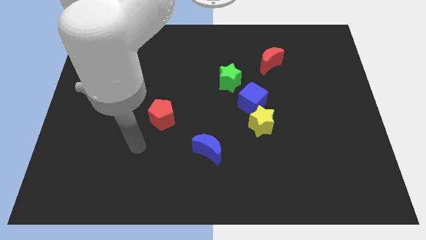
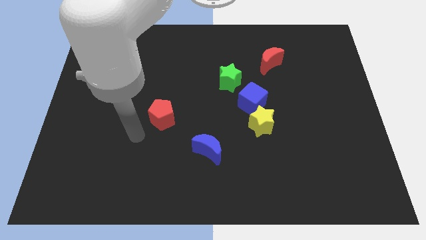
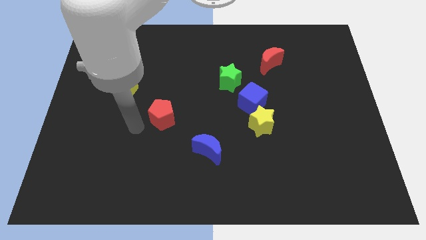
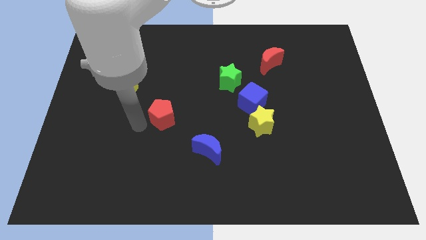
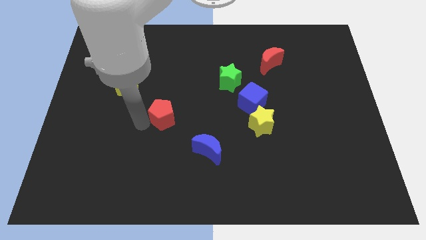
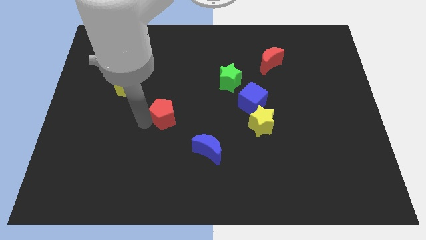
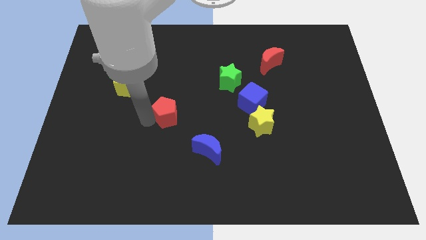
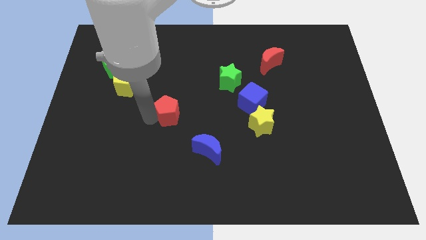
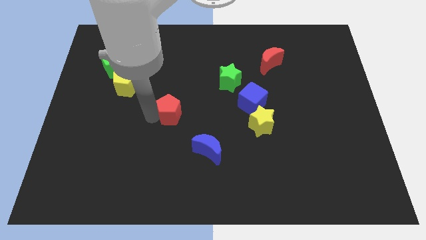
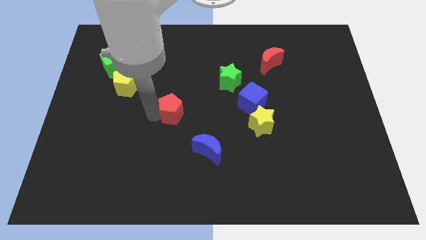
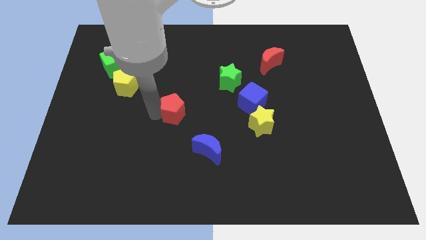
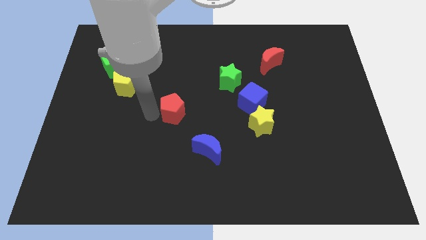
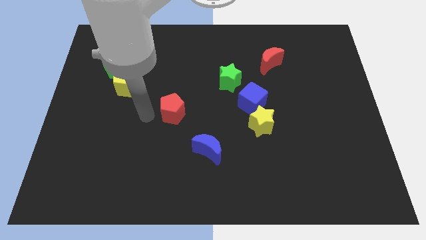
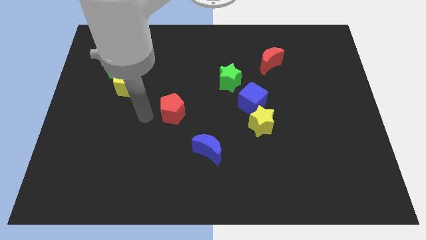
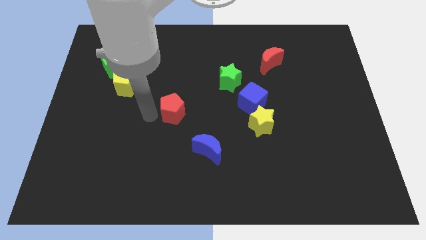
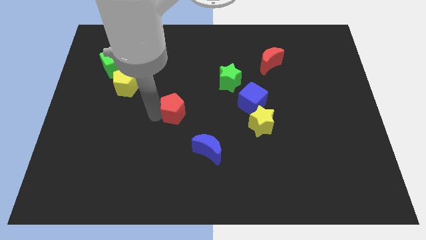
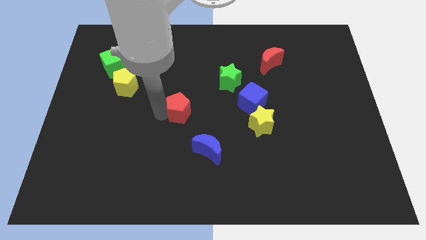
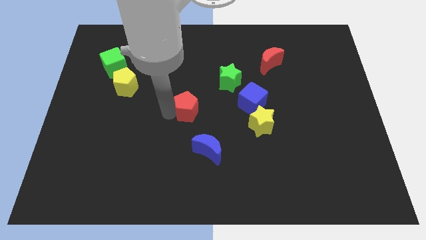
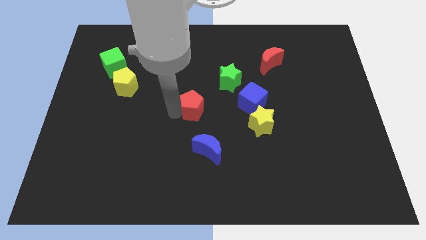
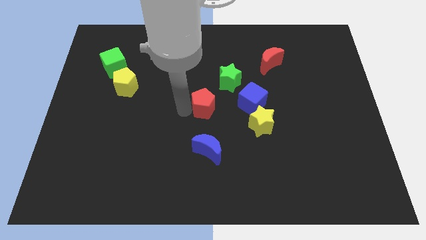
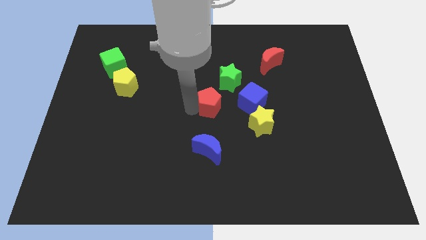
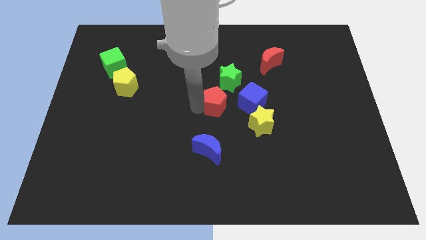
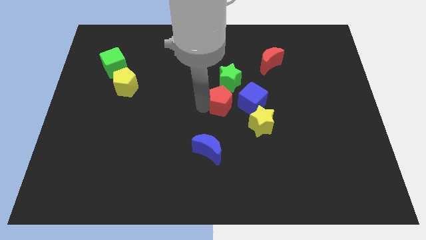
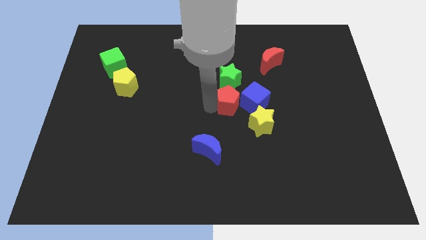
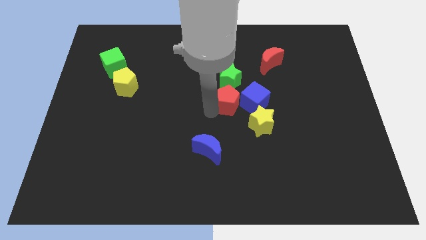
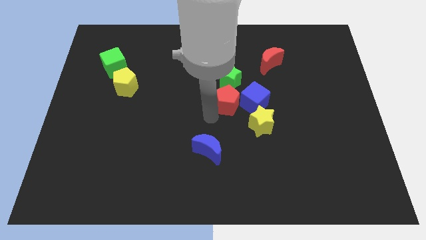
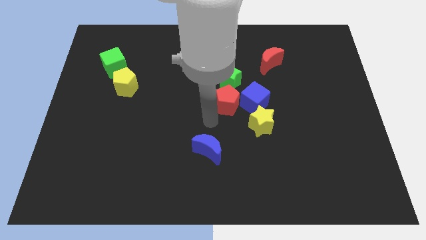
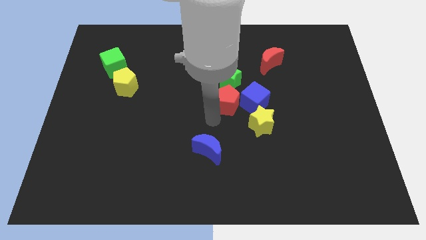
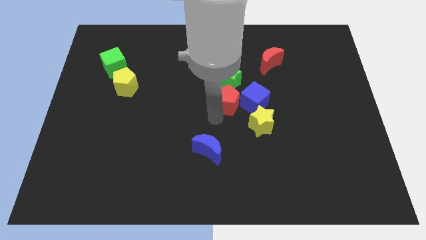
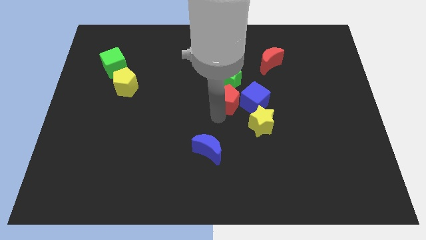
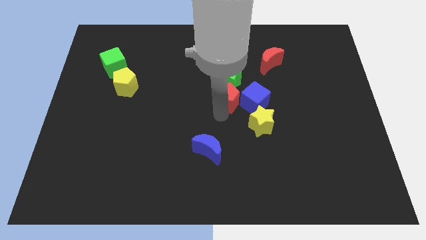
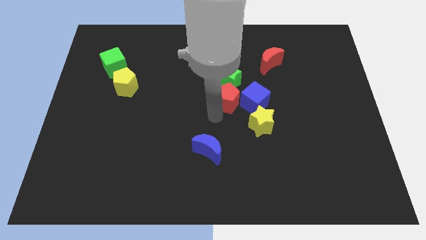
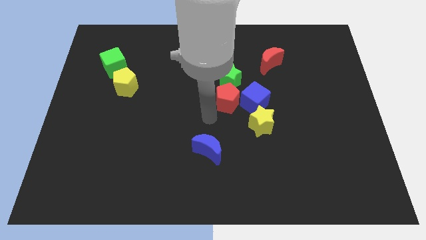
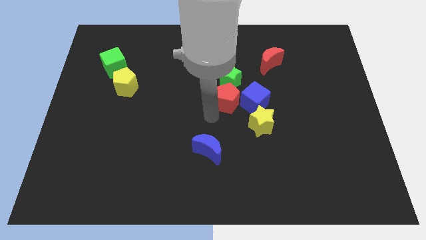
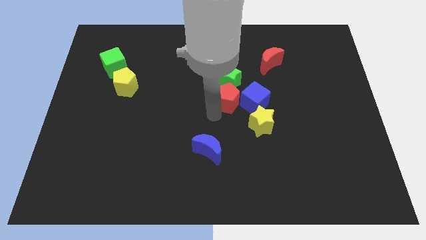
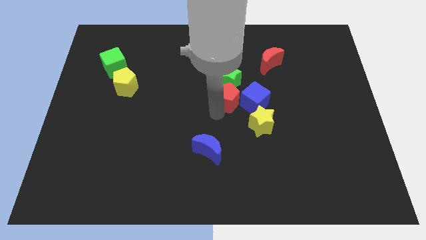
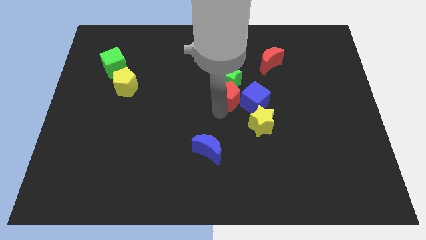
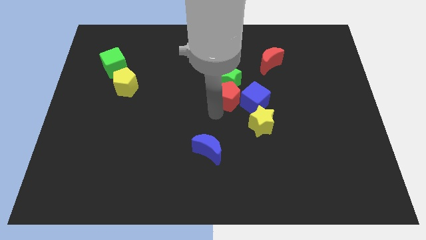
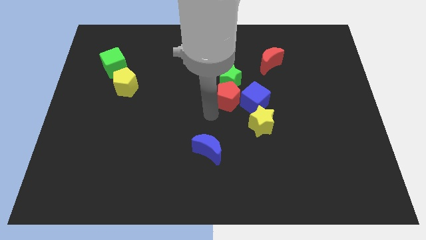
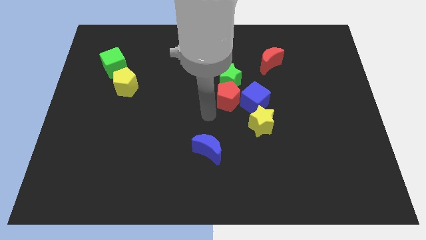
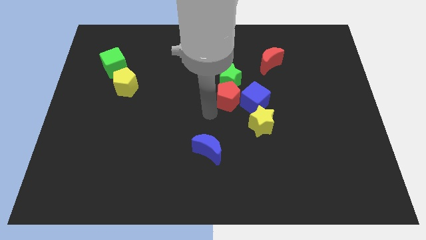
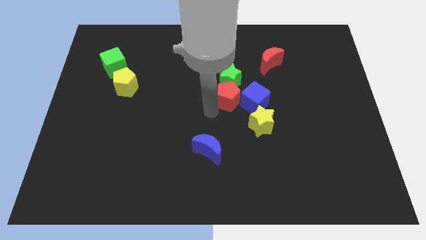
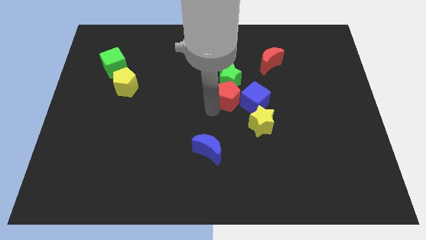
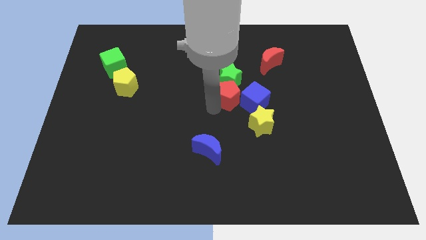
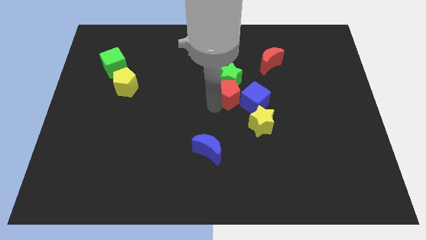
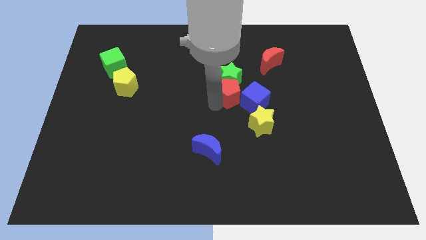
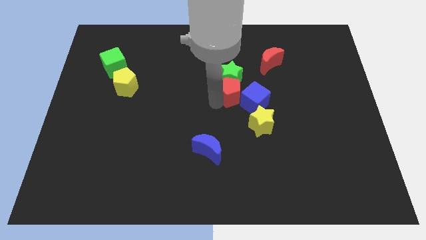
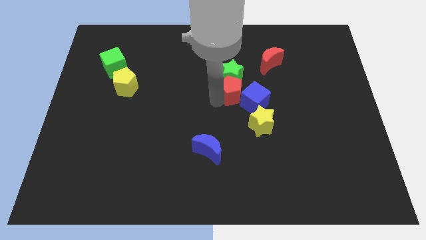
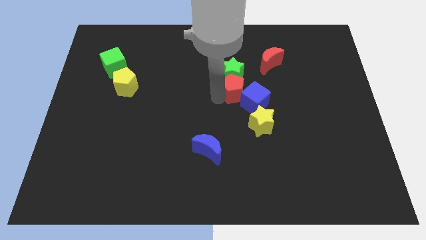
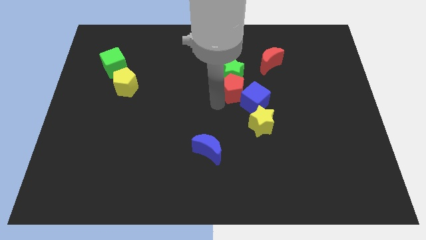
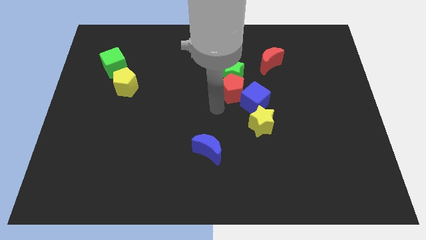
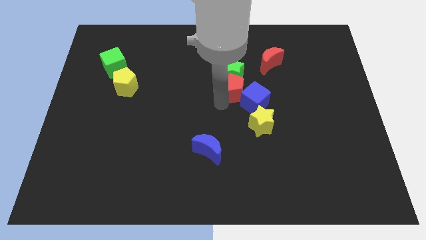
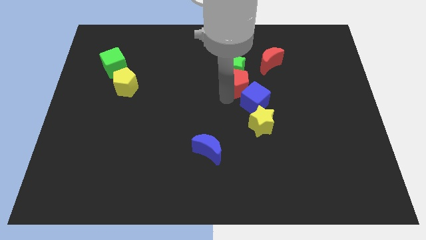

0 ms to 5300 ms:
move the red pentagon above the blue cube

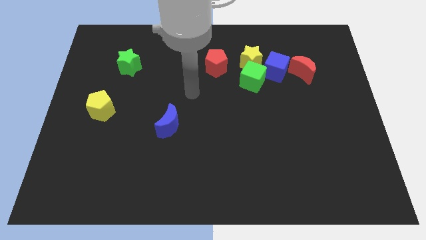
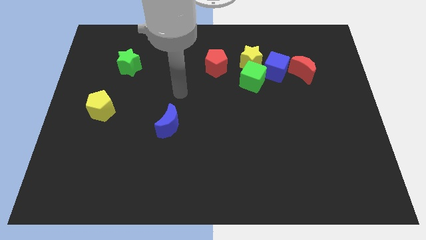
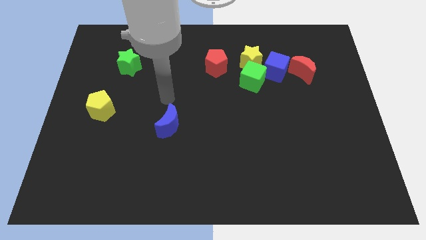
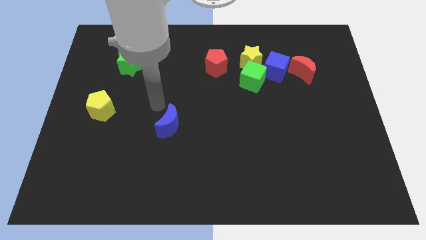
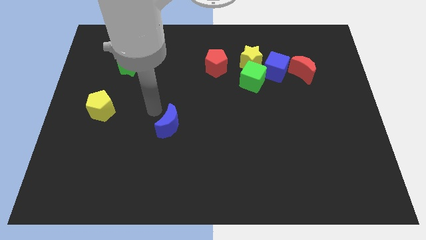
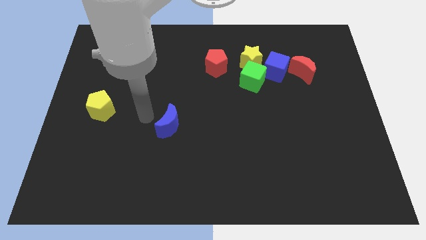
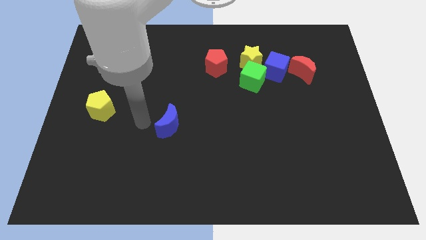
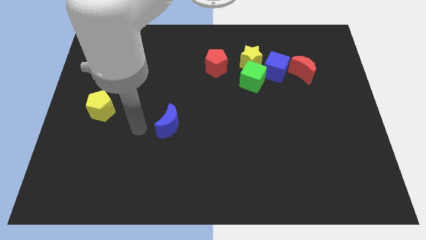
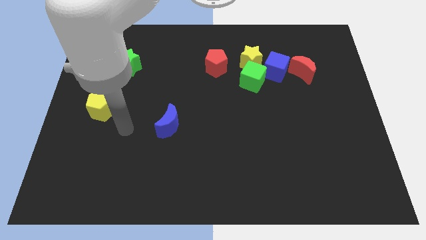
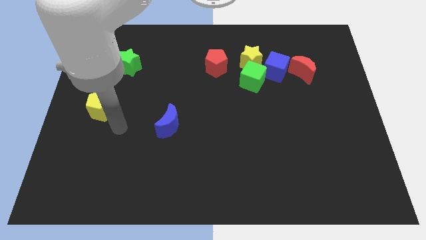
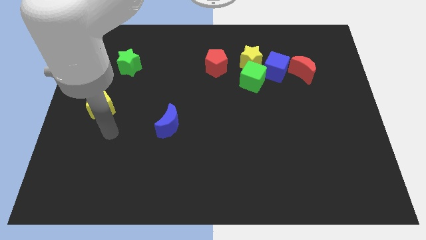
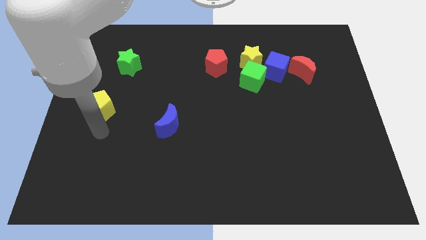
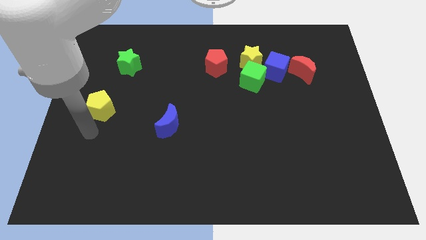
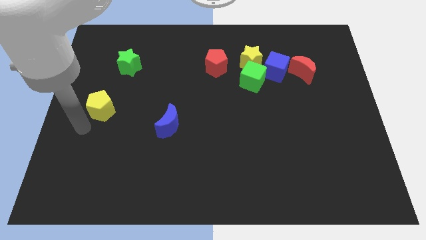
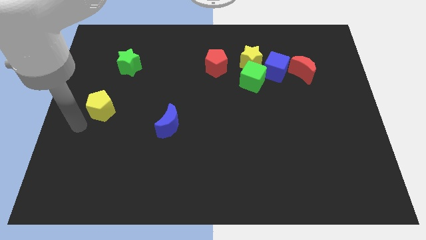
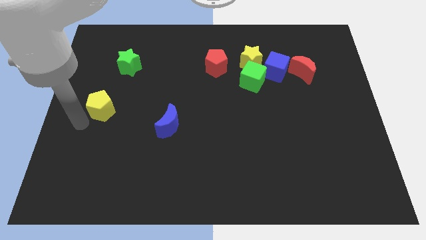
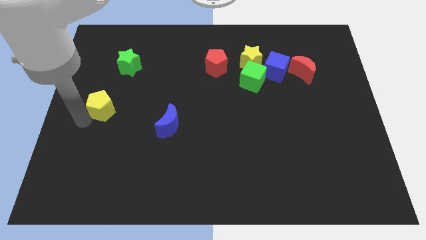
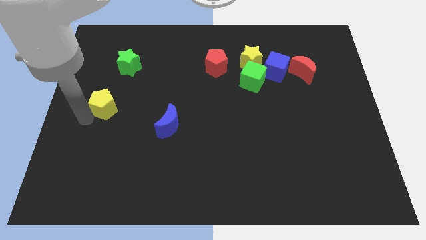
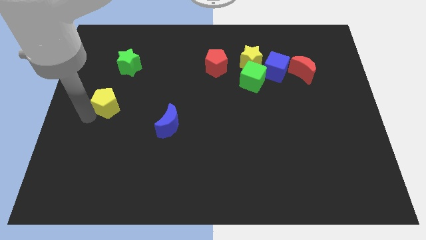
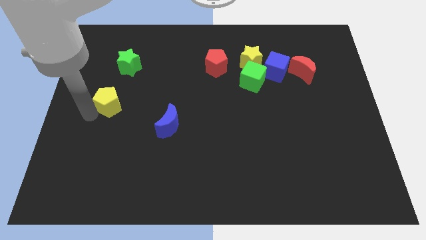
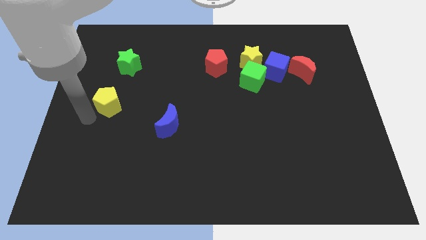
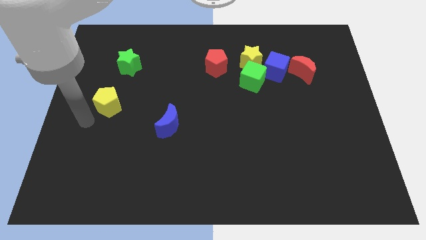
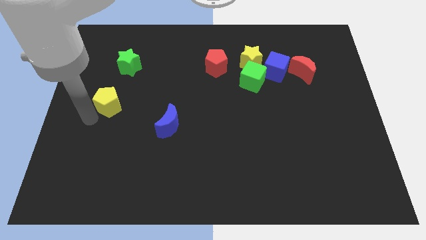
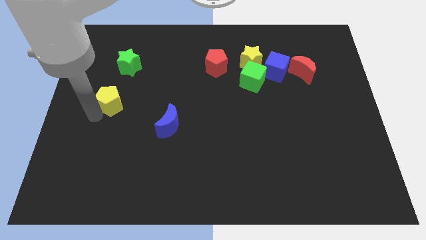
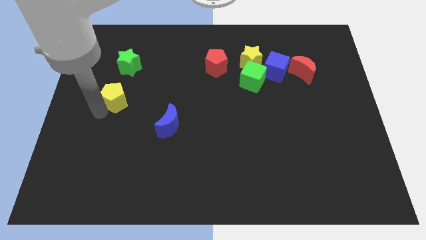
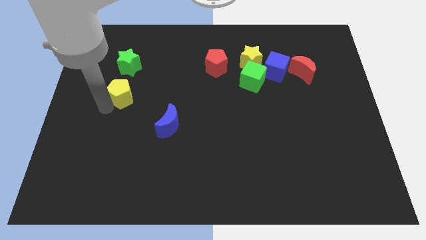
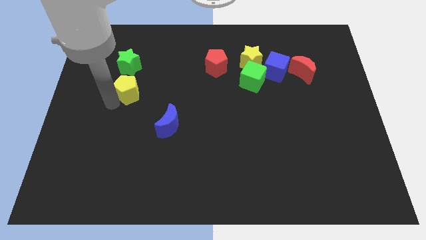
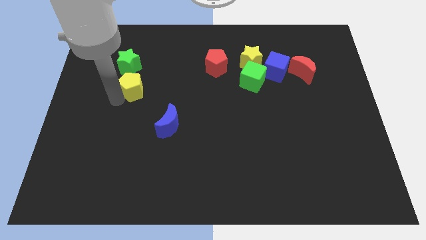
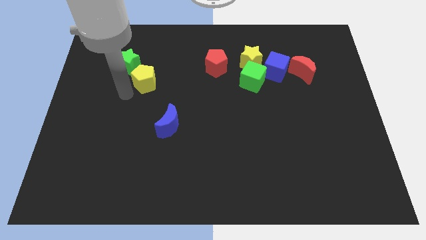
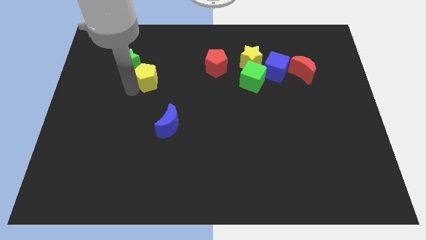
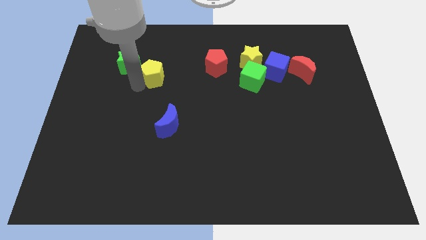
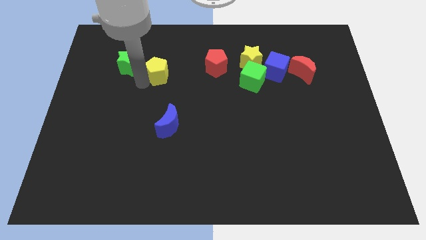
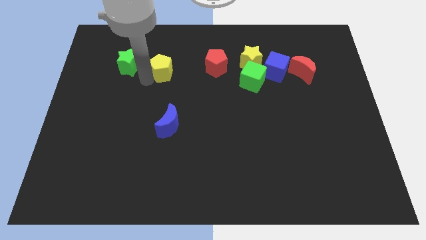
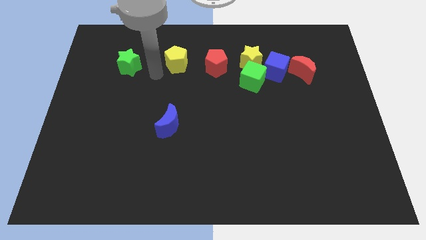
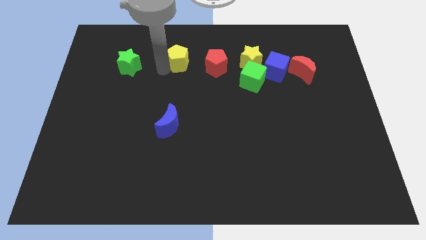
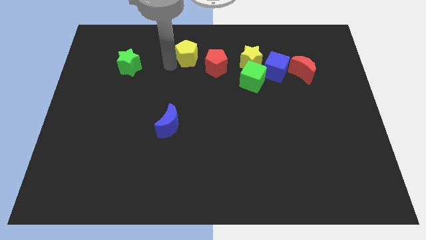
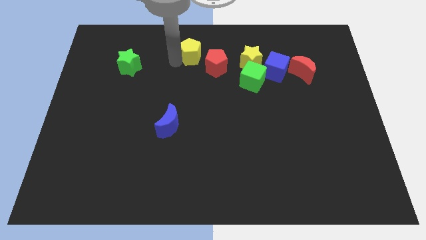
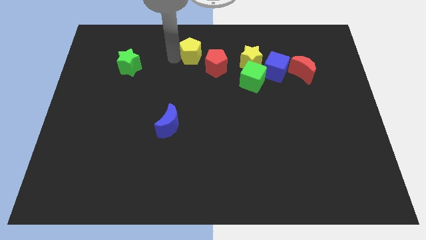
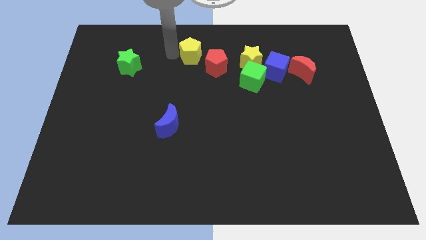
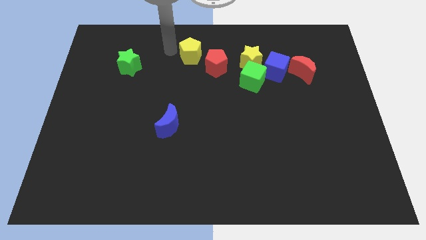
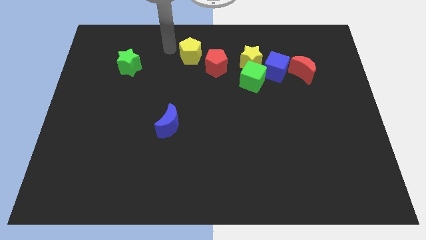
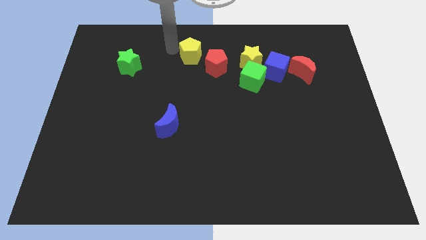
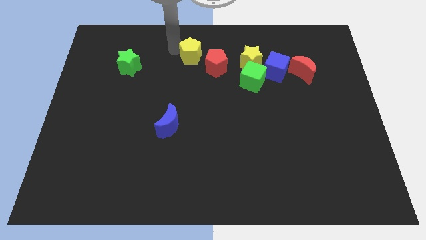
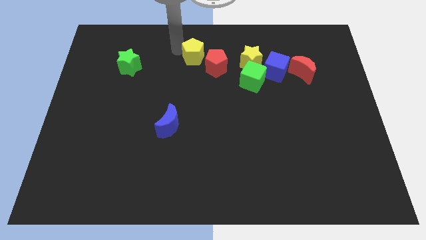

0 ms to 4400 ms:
put the yellow pentagon to the left of the yellow star
